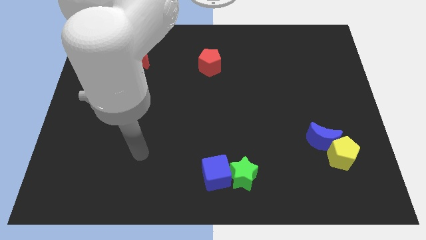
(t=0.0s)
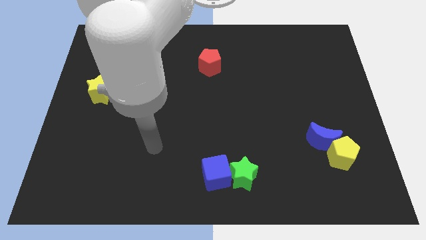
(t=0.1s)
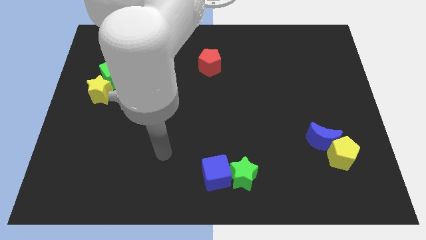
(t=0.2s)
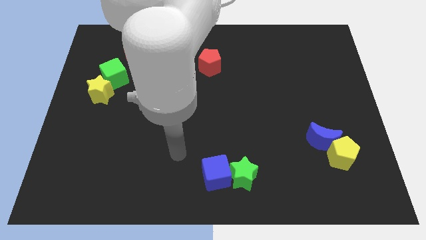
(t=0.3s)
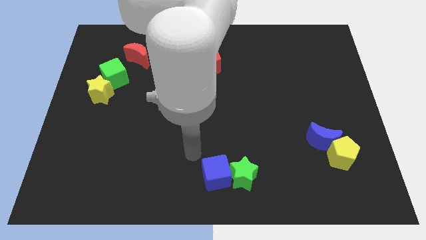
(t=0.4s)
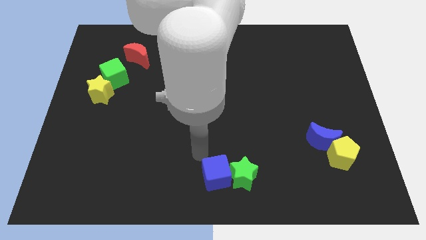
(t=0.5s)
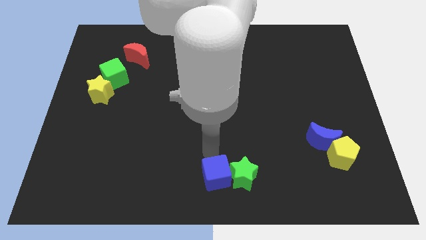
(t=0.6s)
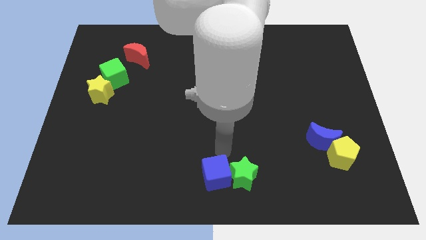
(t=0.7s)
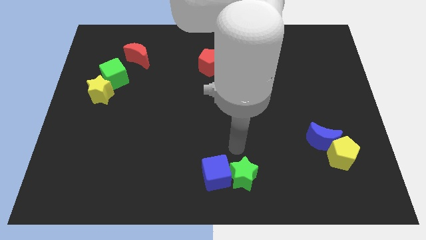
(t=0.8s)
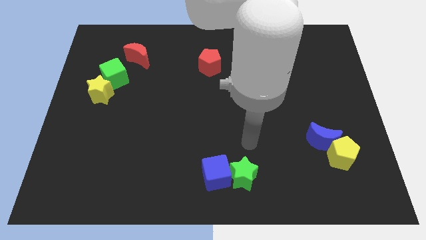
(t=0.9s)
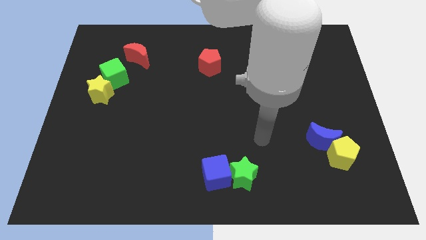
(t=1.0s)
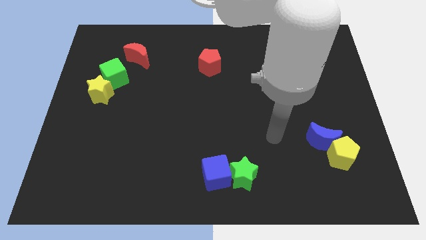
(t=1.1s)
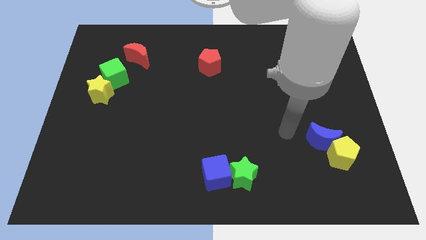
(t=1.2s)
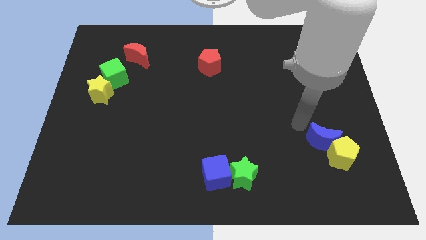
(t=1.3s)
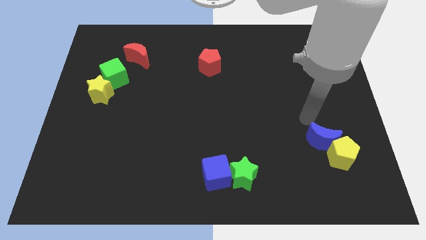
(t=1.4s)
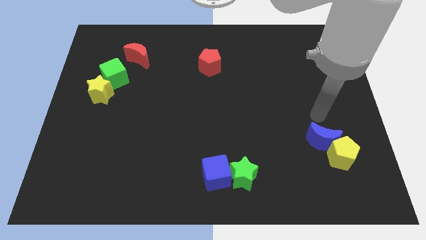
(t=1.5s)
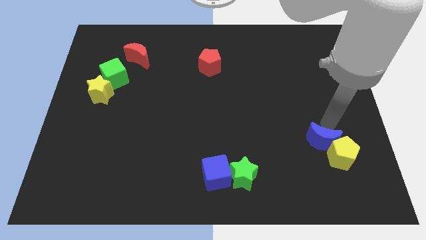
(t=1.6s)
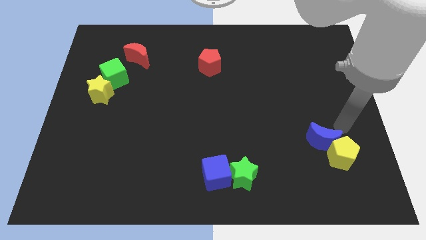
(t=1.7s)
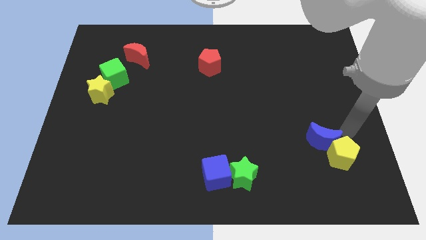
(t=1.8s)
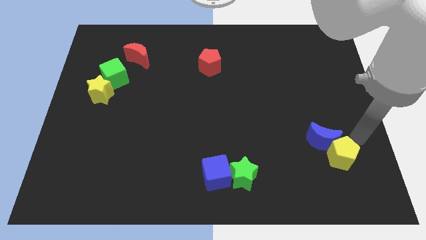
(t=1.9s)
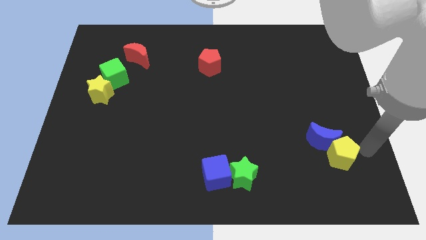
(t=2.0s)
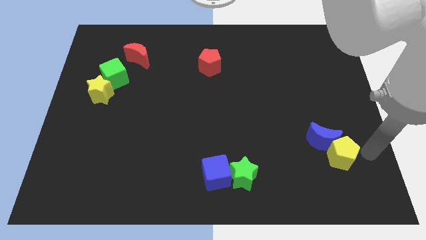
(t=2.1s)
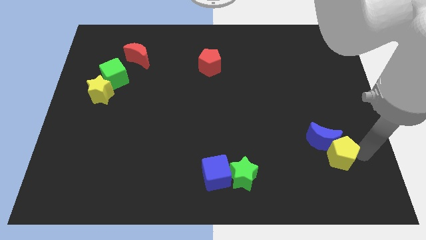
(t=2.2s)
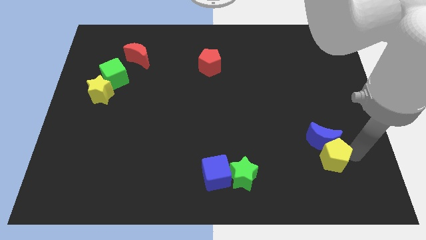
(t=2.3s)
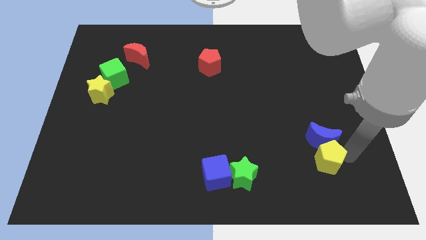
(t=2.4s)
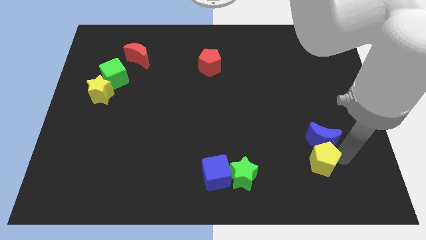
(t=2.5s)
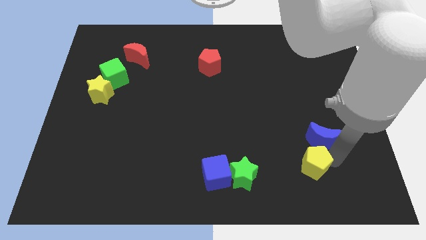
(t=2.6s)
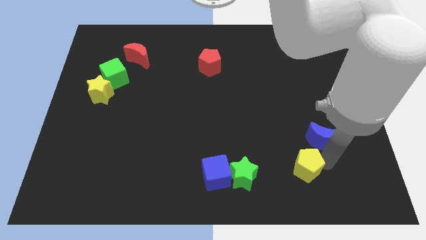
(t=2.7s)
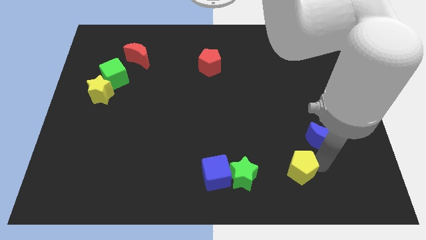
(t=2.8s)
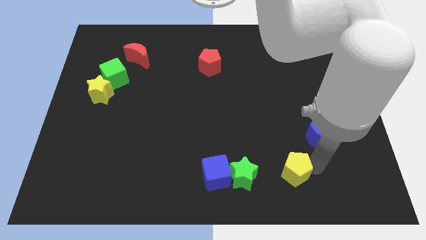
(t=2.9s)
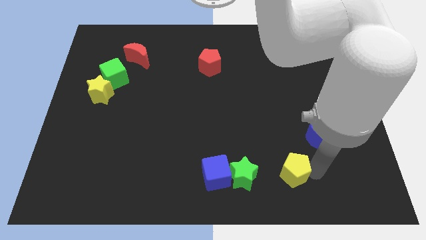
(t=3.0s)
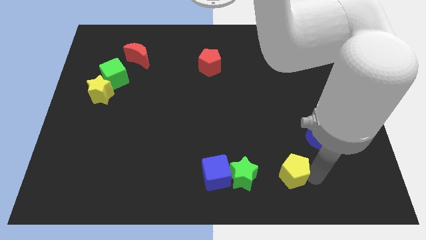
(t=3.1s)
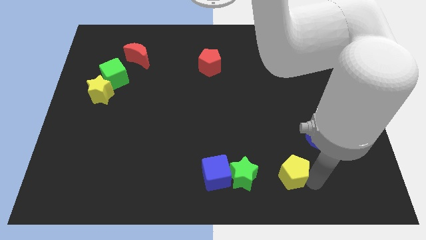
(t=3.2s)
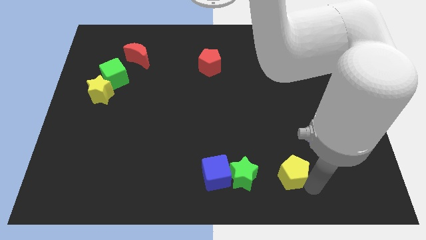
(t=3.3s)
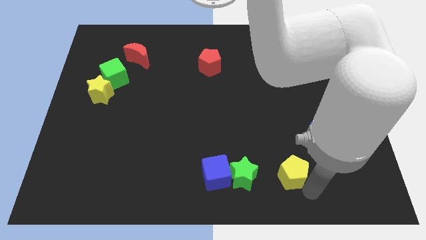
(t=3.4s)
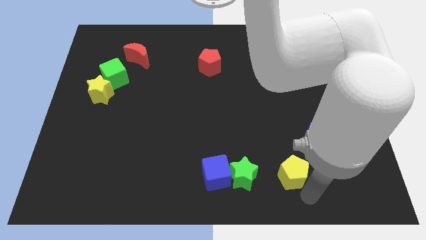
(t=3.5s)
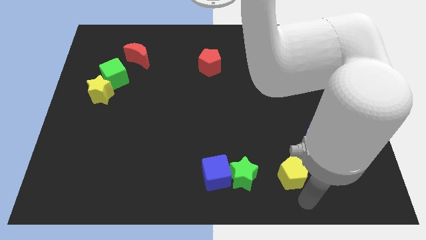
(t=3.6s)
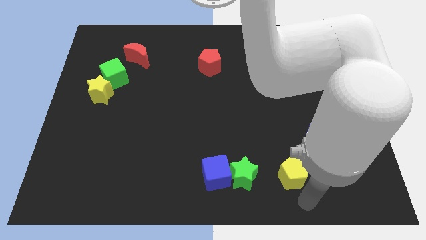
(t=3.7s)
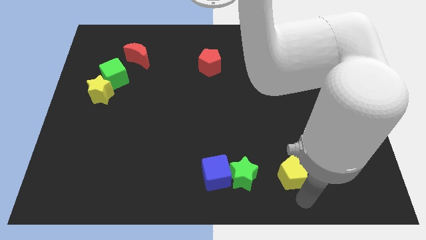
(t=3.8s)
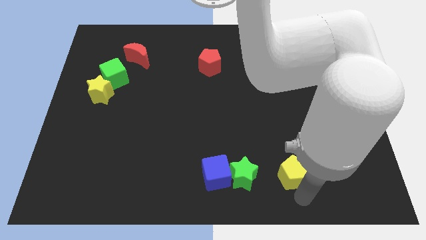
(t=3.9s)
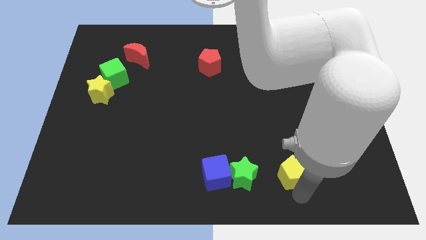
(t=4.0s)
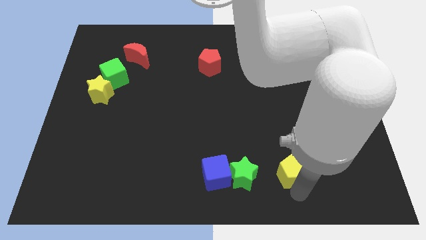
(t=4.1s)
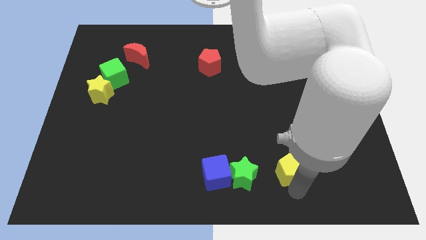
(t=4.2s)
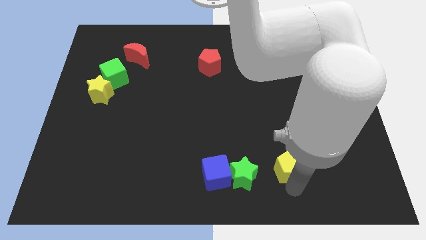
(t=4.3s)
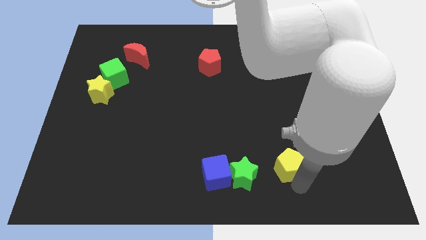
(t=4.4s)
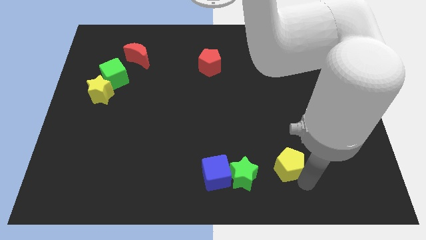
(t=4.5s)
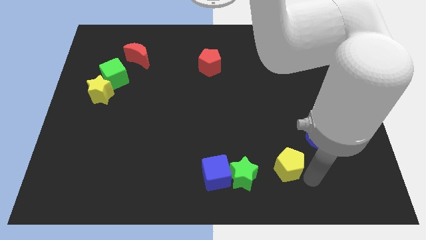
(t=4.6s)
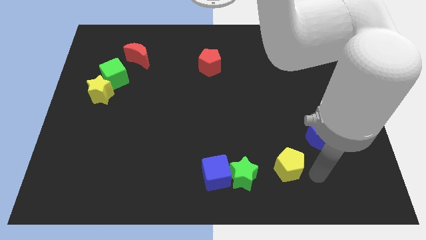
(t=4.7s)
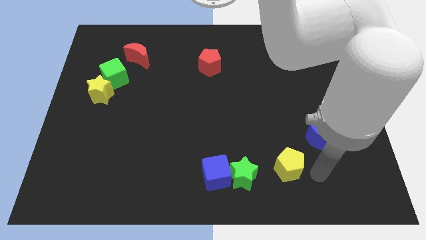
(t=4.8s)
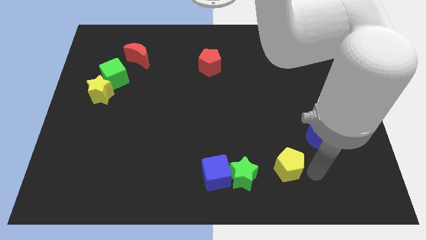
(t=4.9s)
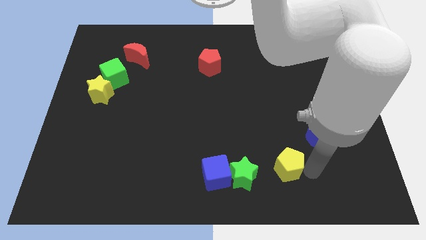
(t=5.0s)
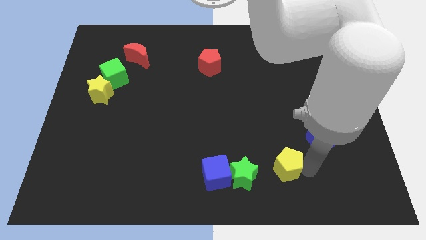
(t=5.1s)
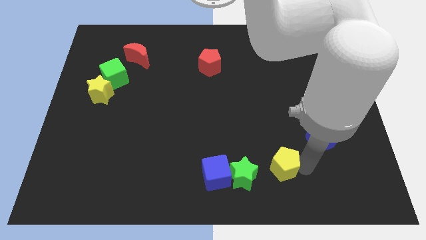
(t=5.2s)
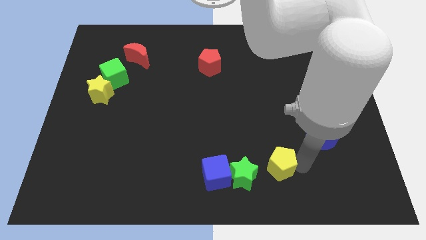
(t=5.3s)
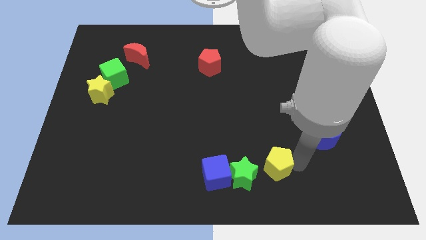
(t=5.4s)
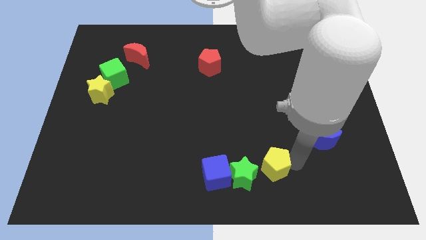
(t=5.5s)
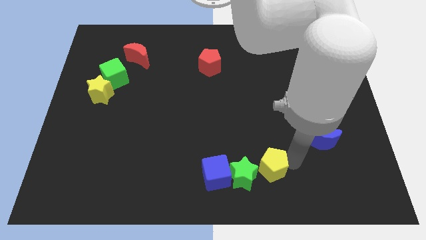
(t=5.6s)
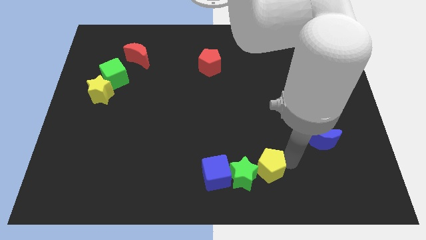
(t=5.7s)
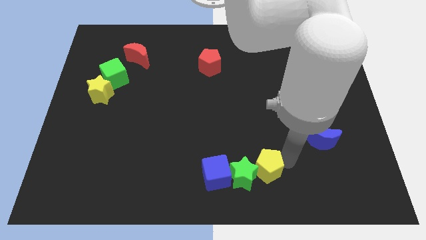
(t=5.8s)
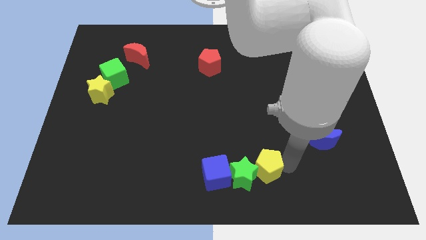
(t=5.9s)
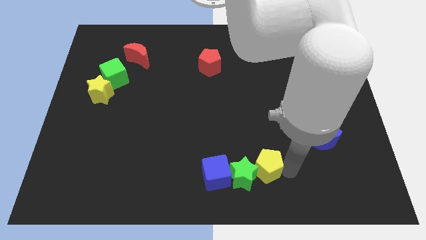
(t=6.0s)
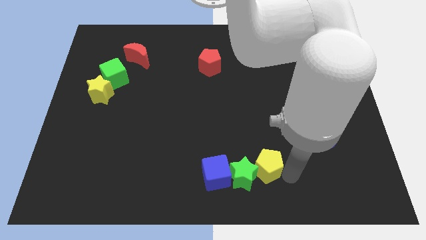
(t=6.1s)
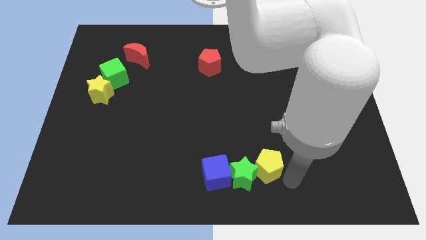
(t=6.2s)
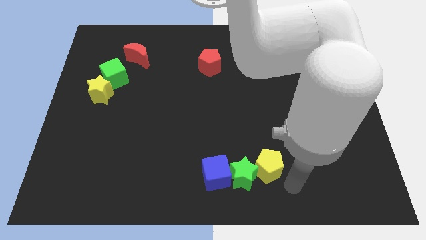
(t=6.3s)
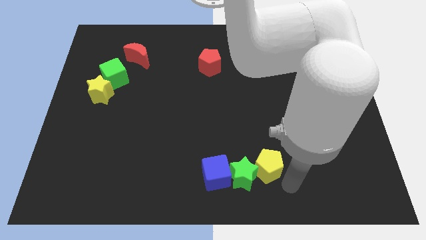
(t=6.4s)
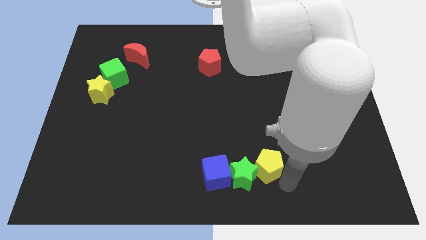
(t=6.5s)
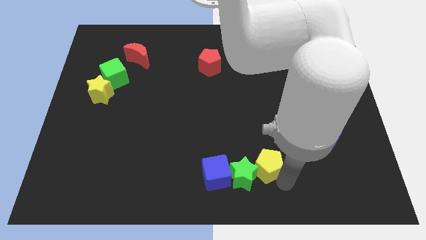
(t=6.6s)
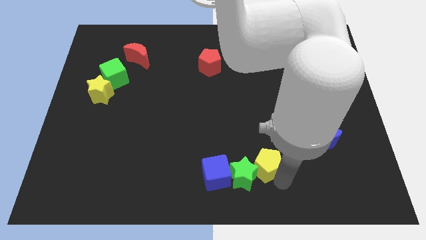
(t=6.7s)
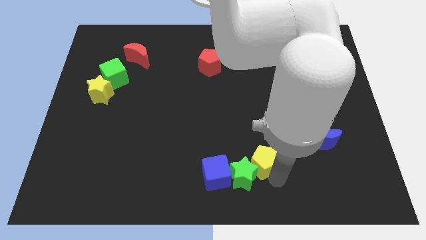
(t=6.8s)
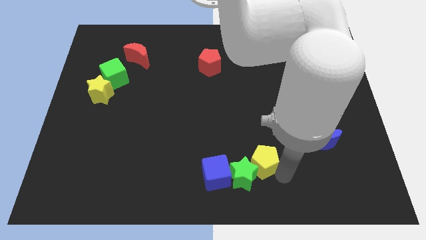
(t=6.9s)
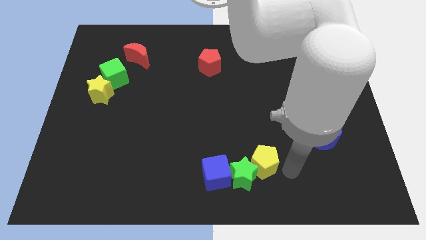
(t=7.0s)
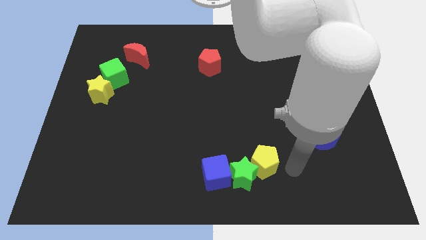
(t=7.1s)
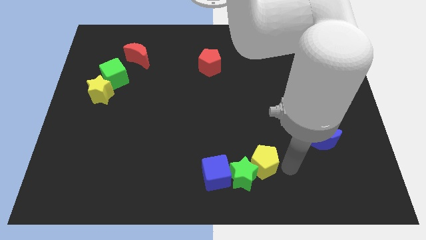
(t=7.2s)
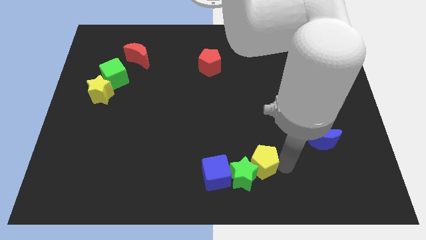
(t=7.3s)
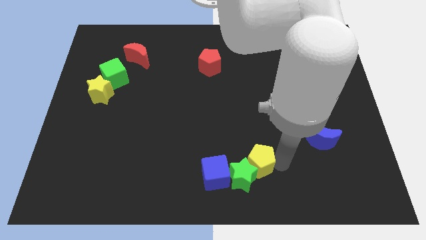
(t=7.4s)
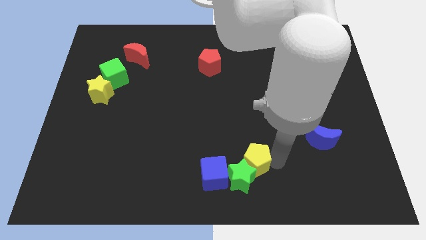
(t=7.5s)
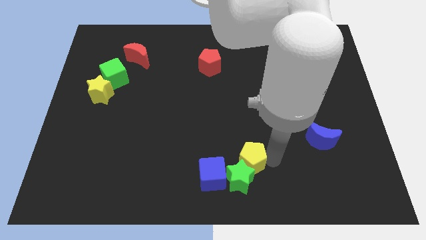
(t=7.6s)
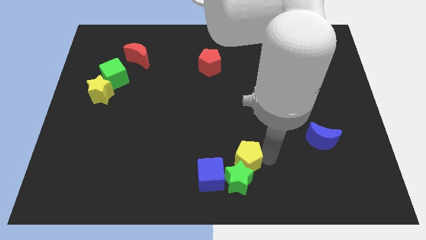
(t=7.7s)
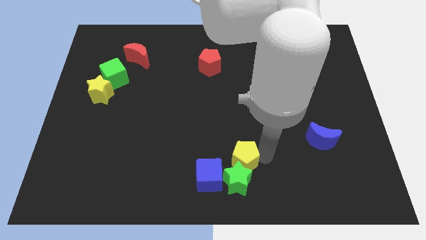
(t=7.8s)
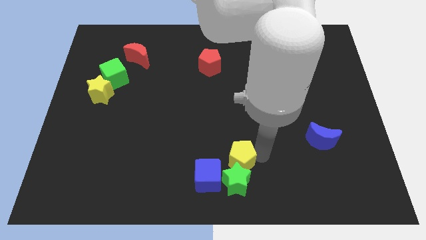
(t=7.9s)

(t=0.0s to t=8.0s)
move the yellow pentagon to the top left side of the green star
